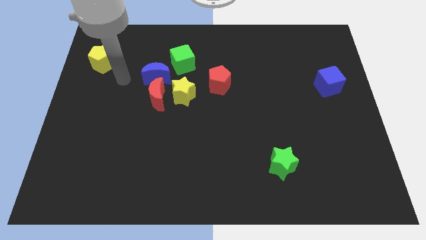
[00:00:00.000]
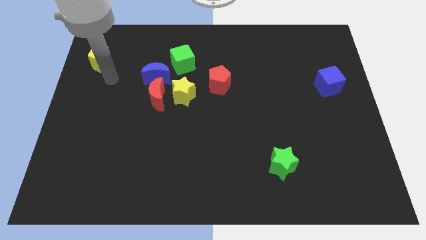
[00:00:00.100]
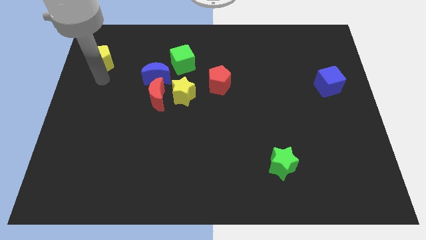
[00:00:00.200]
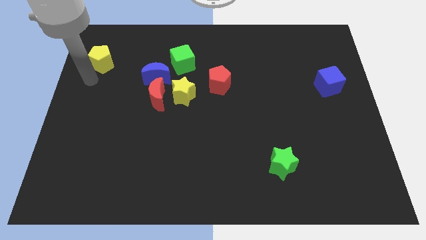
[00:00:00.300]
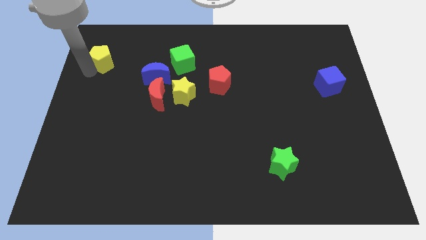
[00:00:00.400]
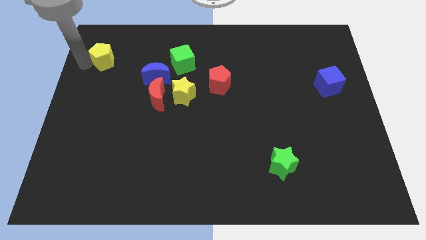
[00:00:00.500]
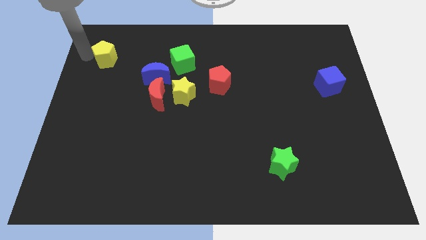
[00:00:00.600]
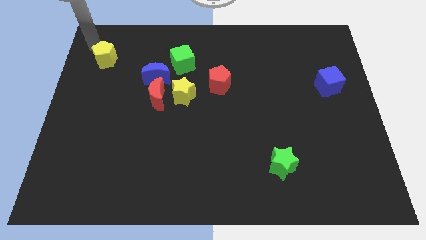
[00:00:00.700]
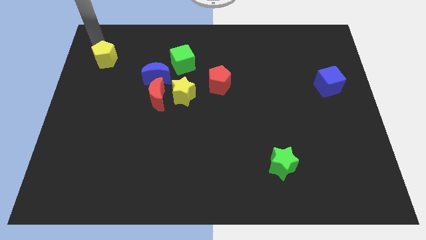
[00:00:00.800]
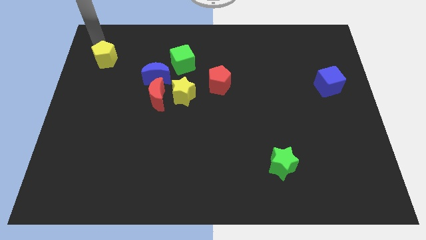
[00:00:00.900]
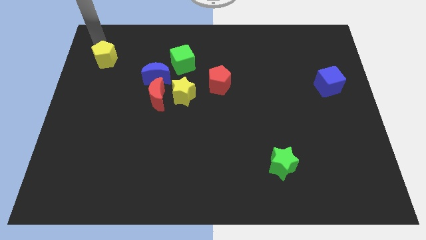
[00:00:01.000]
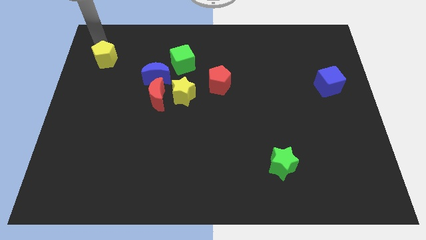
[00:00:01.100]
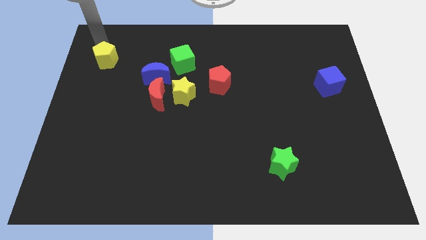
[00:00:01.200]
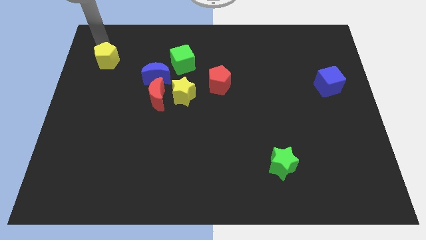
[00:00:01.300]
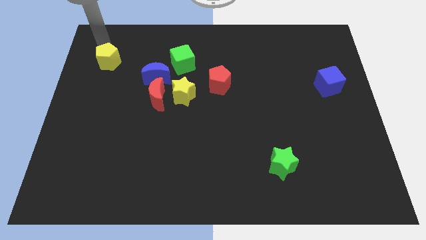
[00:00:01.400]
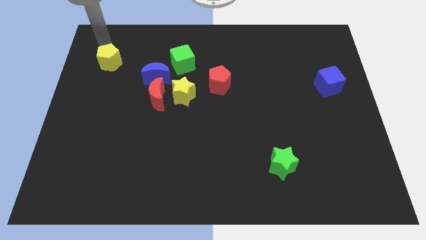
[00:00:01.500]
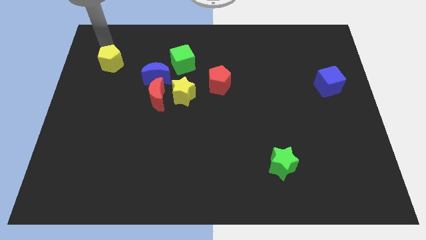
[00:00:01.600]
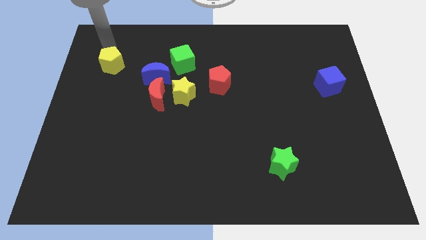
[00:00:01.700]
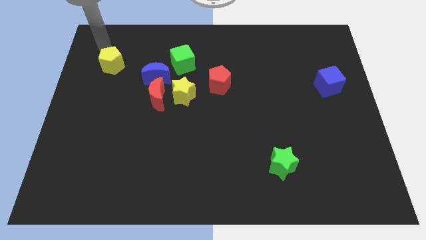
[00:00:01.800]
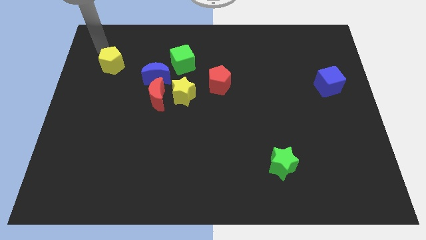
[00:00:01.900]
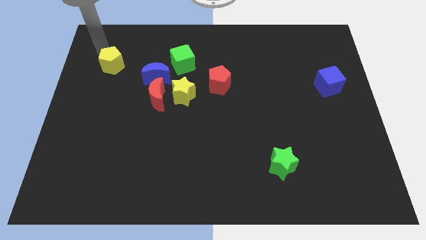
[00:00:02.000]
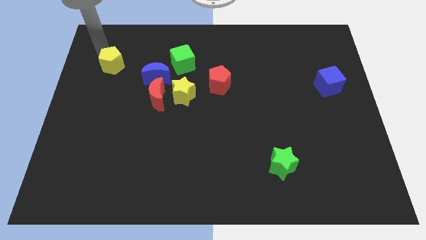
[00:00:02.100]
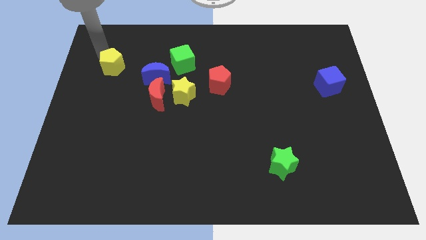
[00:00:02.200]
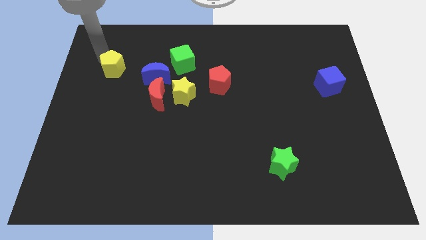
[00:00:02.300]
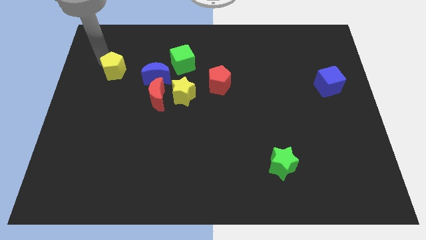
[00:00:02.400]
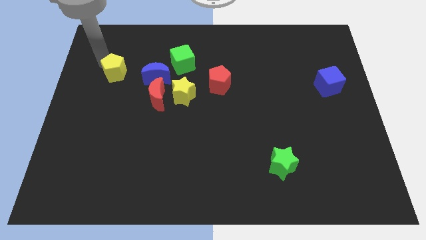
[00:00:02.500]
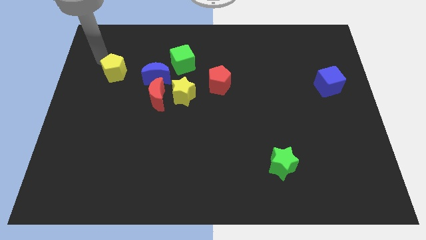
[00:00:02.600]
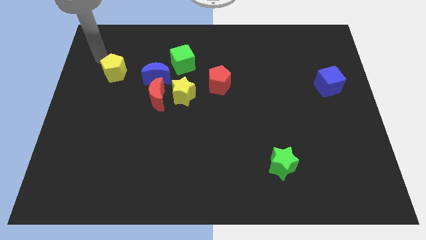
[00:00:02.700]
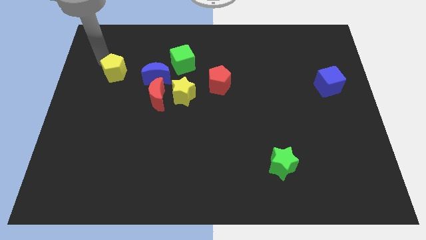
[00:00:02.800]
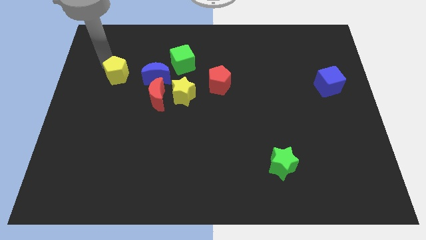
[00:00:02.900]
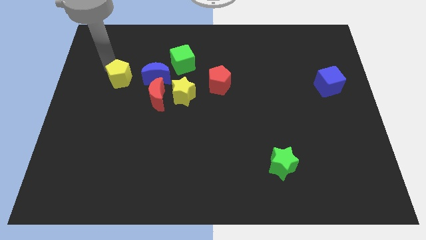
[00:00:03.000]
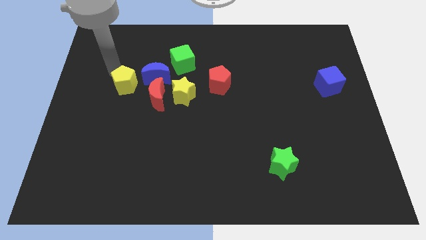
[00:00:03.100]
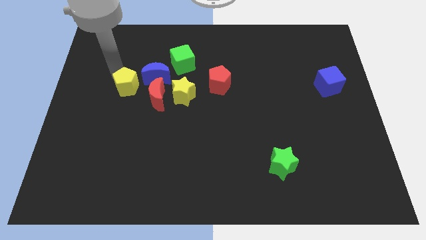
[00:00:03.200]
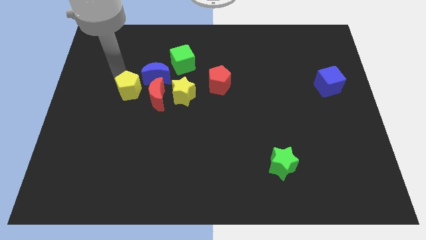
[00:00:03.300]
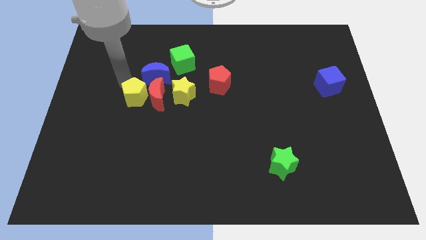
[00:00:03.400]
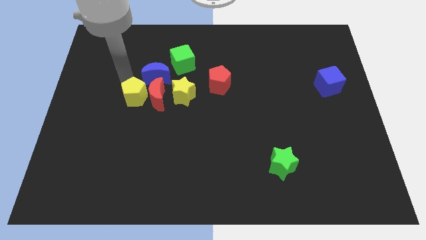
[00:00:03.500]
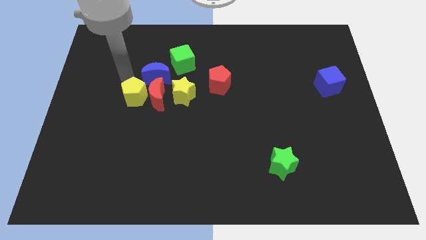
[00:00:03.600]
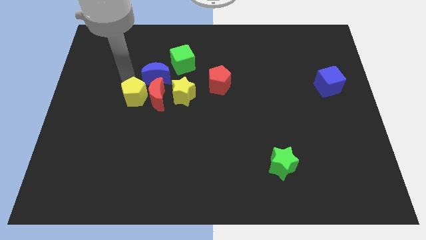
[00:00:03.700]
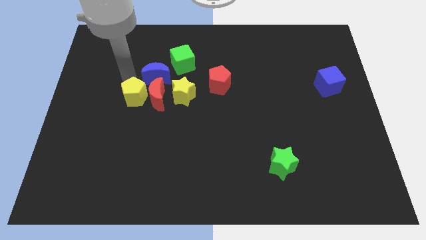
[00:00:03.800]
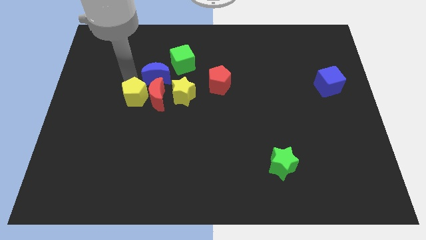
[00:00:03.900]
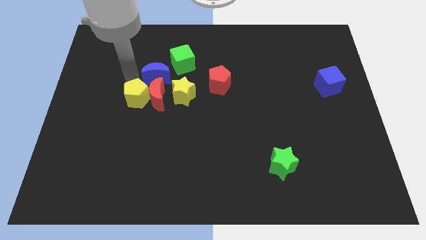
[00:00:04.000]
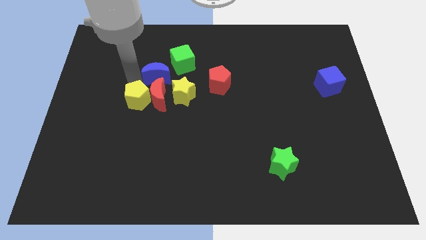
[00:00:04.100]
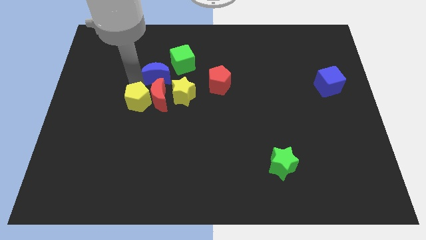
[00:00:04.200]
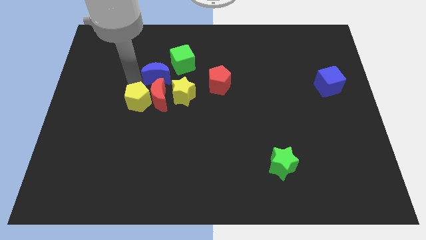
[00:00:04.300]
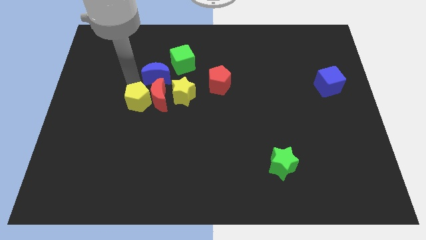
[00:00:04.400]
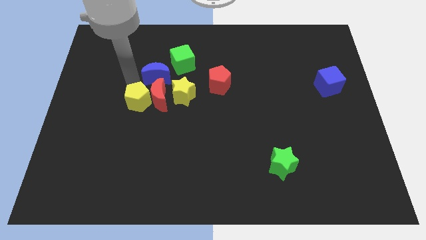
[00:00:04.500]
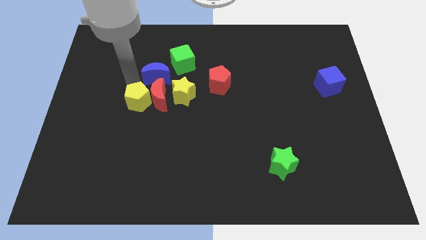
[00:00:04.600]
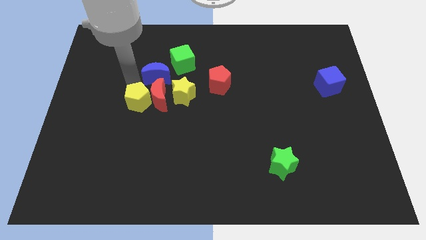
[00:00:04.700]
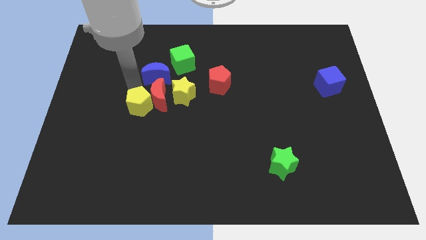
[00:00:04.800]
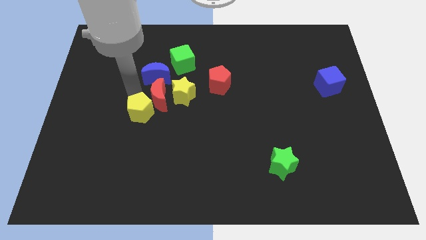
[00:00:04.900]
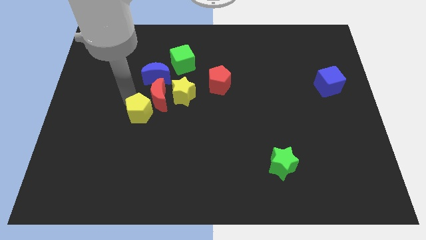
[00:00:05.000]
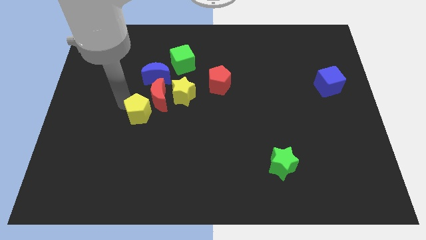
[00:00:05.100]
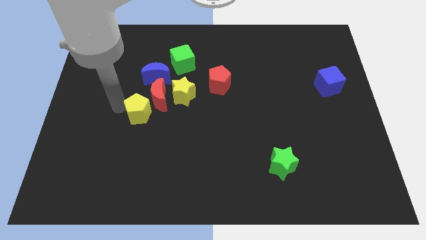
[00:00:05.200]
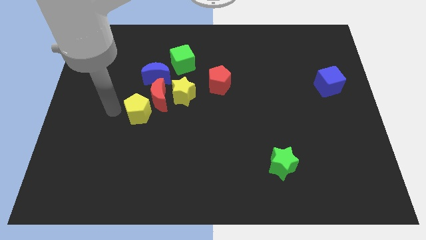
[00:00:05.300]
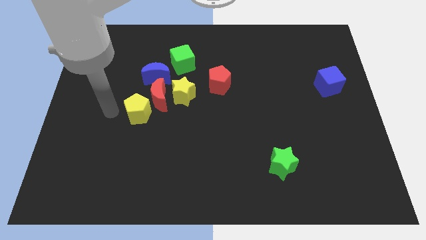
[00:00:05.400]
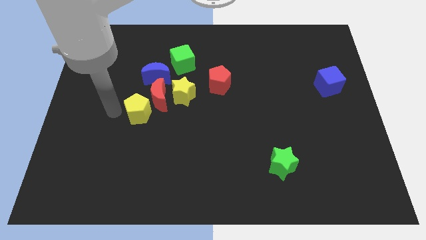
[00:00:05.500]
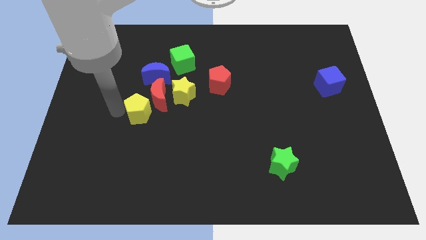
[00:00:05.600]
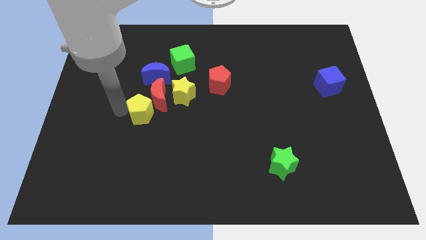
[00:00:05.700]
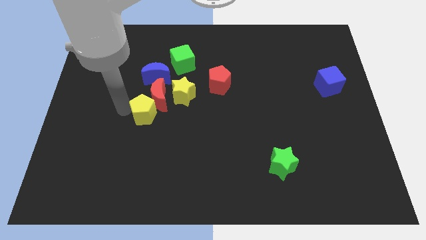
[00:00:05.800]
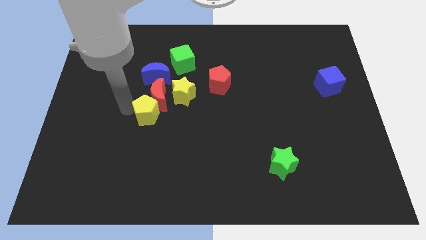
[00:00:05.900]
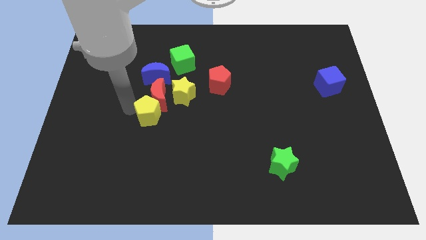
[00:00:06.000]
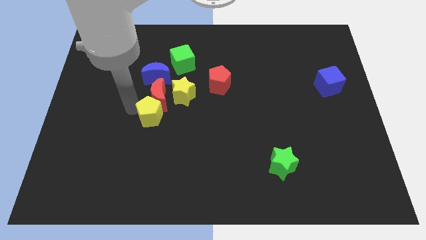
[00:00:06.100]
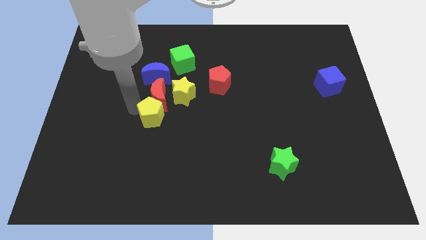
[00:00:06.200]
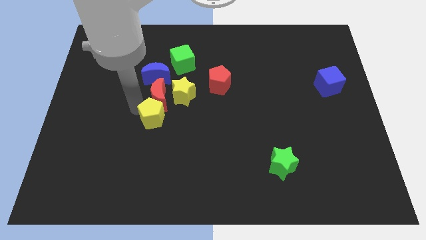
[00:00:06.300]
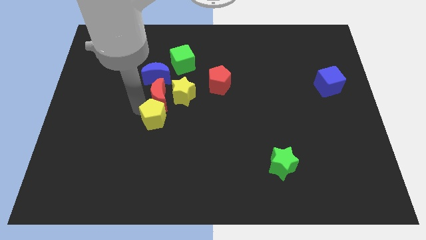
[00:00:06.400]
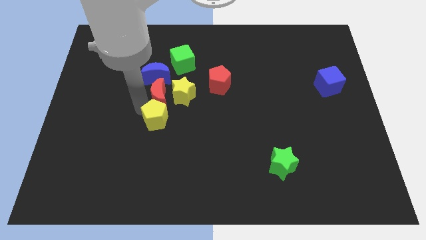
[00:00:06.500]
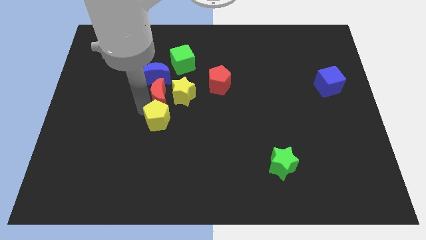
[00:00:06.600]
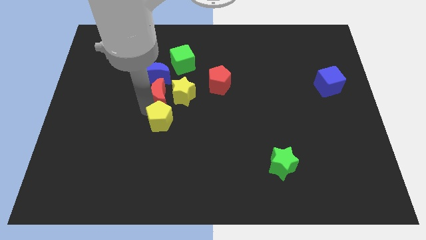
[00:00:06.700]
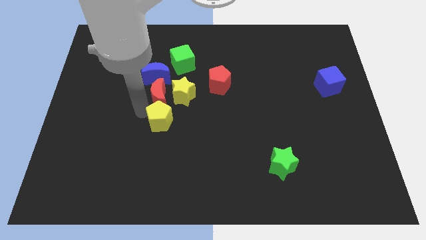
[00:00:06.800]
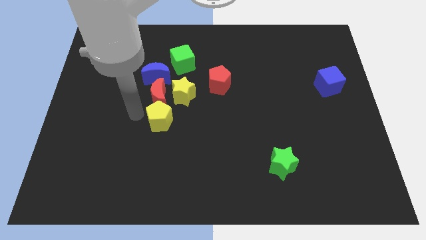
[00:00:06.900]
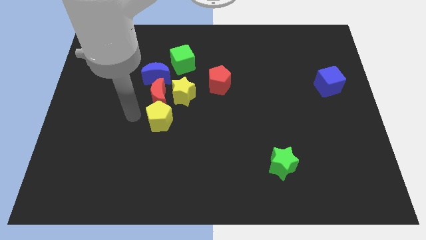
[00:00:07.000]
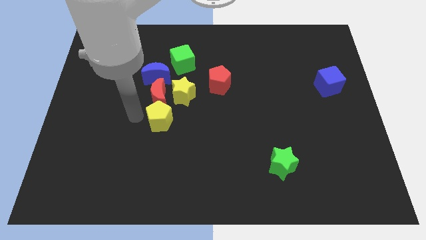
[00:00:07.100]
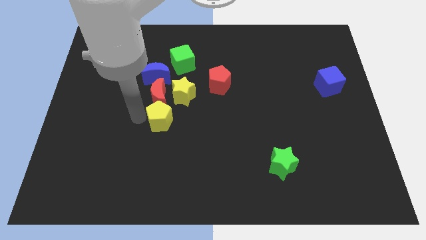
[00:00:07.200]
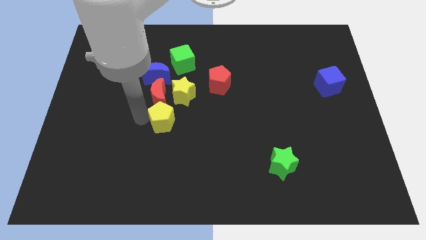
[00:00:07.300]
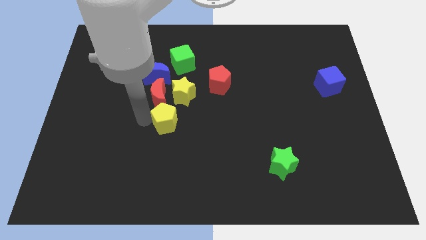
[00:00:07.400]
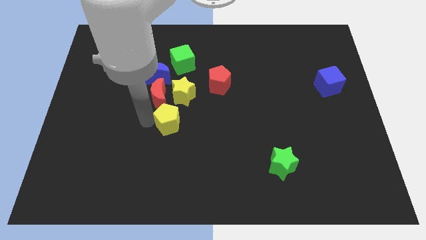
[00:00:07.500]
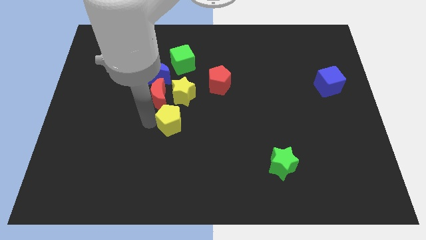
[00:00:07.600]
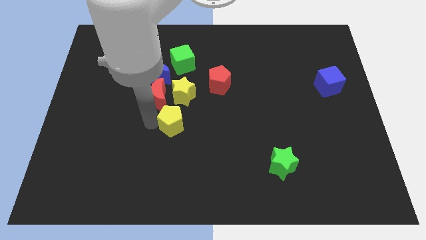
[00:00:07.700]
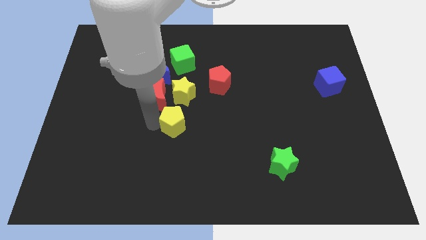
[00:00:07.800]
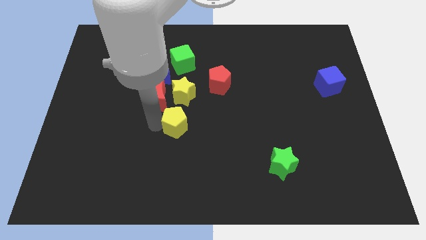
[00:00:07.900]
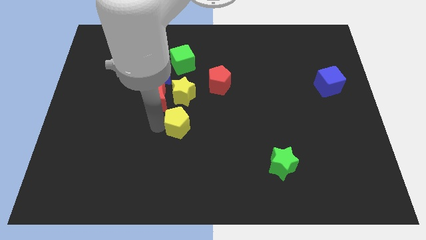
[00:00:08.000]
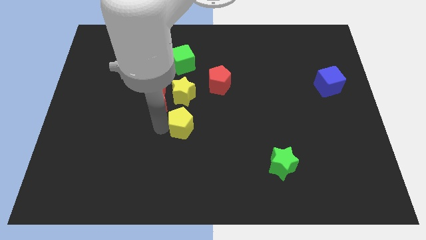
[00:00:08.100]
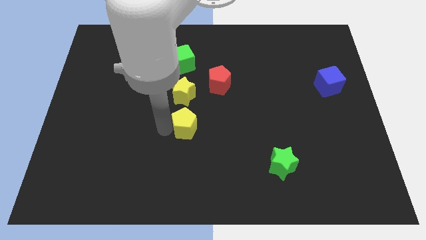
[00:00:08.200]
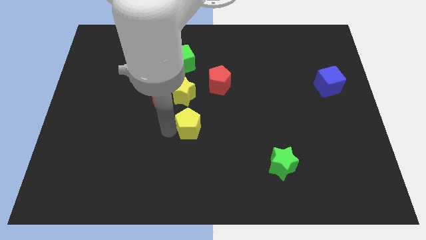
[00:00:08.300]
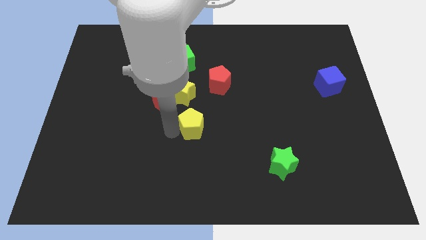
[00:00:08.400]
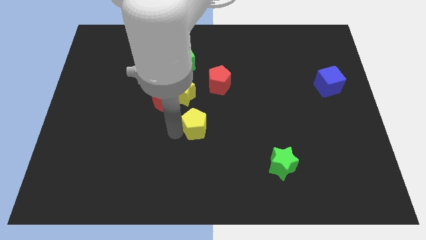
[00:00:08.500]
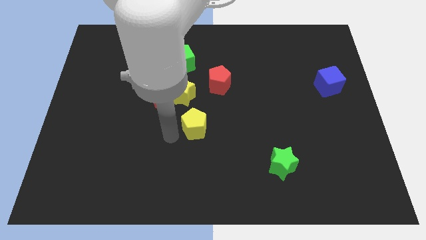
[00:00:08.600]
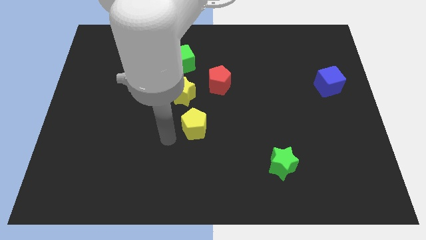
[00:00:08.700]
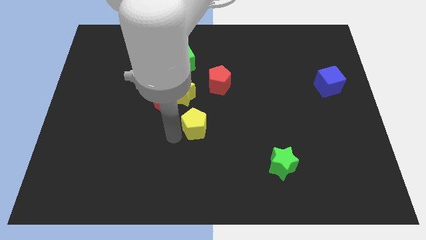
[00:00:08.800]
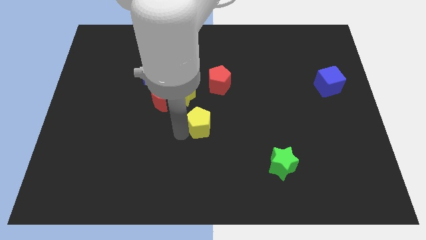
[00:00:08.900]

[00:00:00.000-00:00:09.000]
move the yellow pentagon to the bottom of the red pentagon
